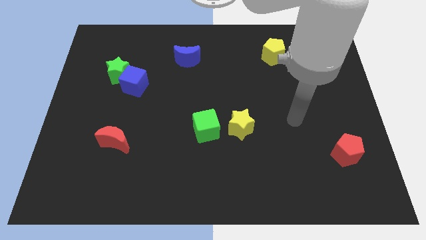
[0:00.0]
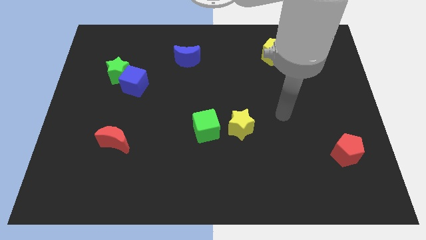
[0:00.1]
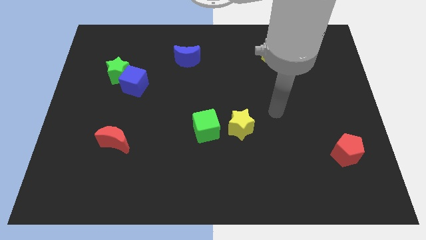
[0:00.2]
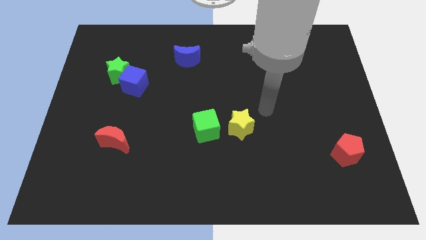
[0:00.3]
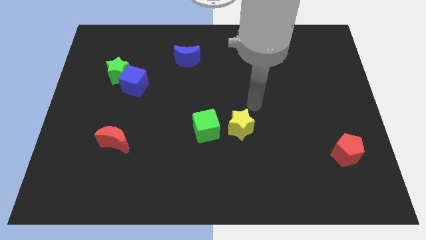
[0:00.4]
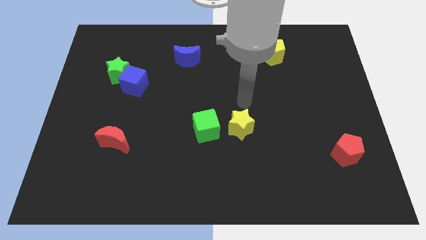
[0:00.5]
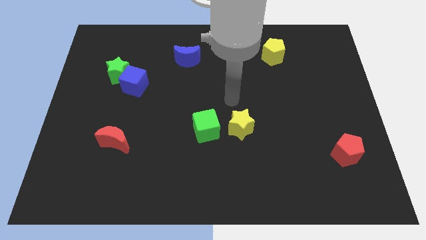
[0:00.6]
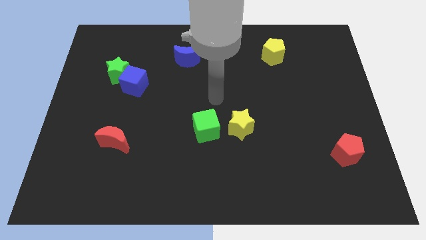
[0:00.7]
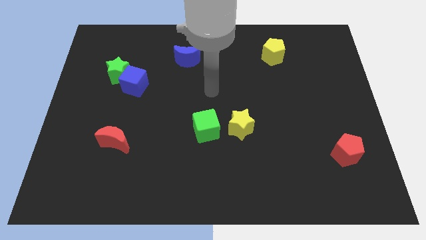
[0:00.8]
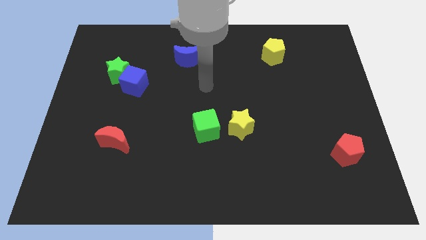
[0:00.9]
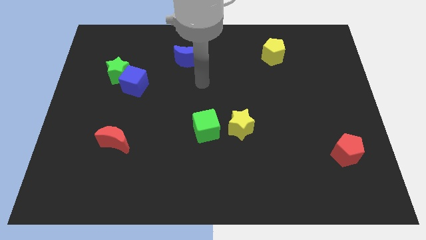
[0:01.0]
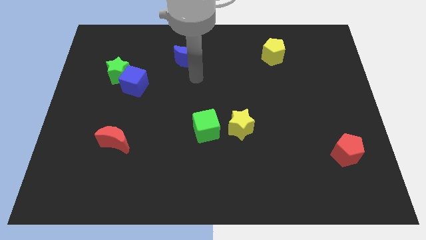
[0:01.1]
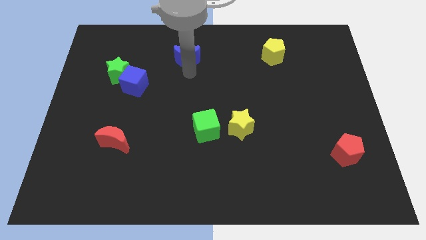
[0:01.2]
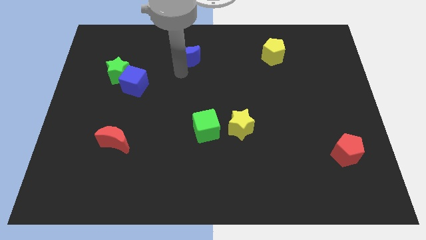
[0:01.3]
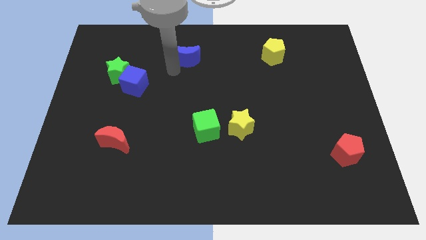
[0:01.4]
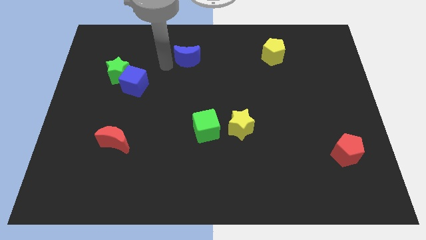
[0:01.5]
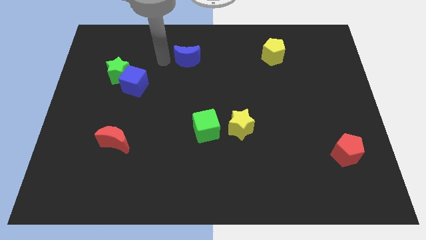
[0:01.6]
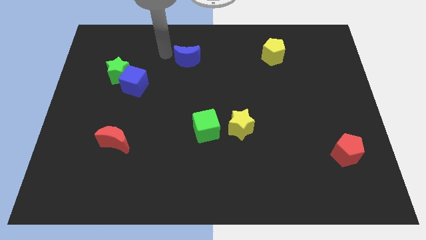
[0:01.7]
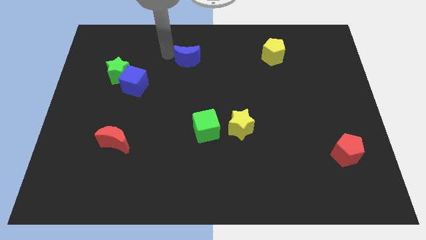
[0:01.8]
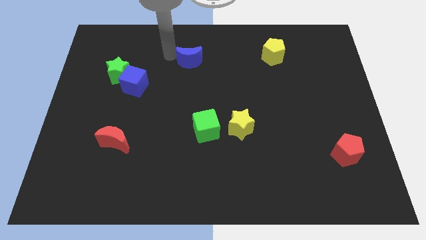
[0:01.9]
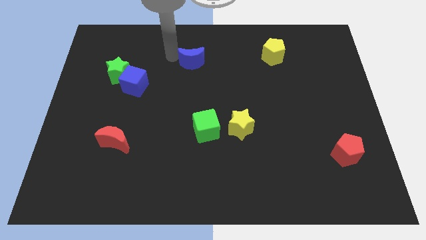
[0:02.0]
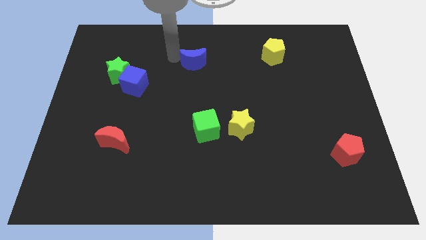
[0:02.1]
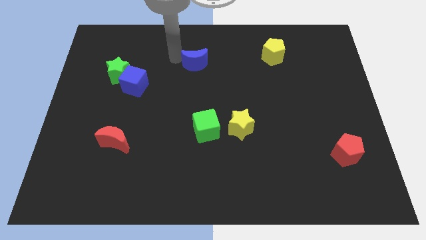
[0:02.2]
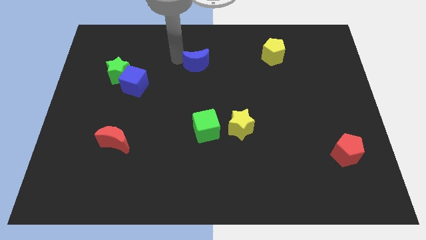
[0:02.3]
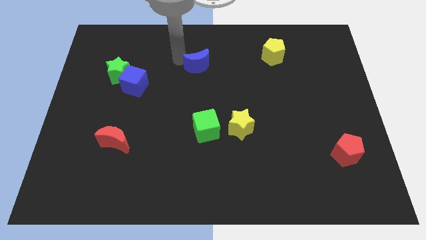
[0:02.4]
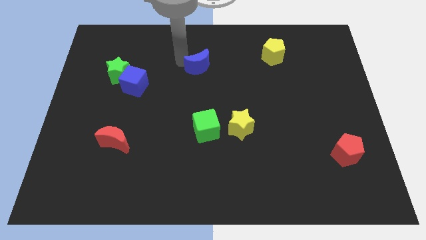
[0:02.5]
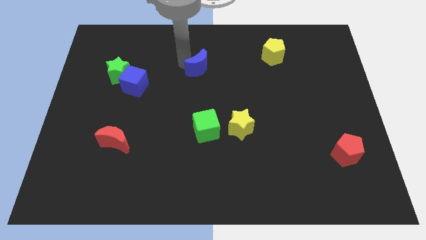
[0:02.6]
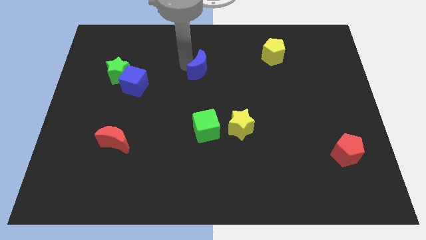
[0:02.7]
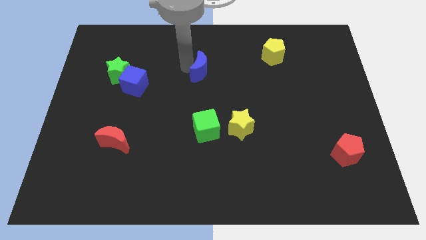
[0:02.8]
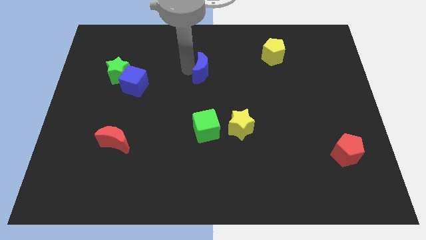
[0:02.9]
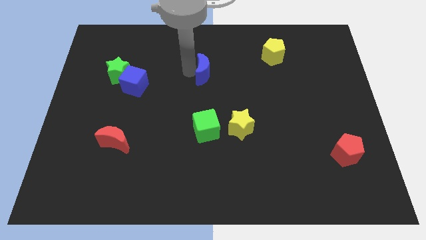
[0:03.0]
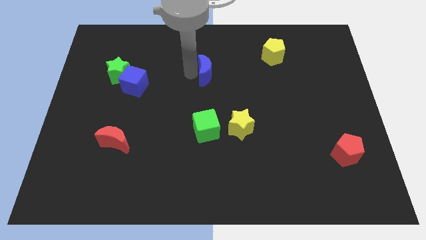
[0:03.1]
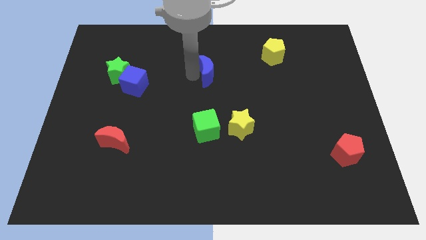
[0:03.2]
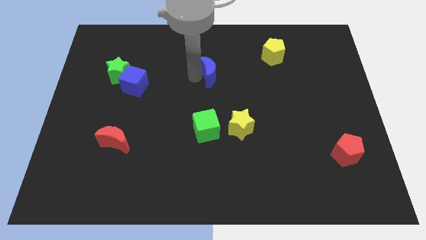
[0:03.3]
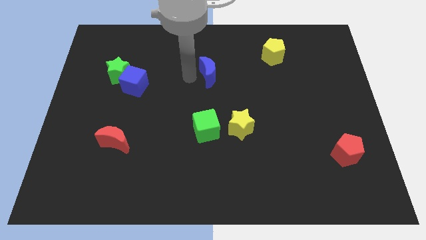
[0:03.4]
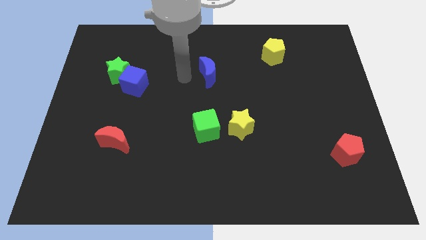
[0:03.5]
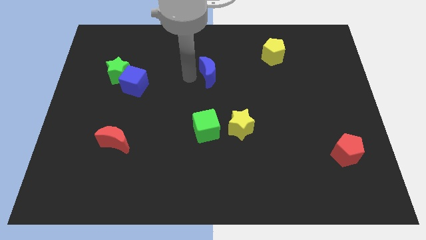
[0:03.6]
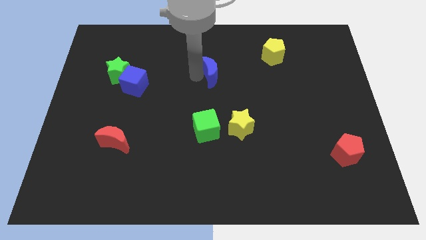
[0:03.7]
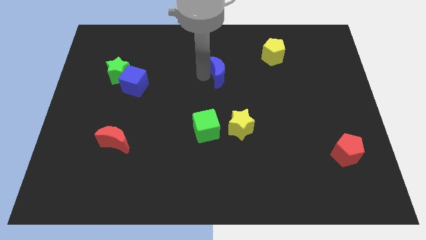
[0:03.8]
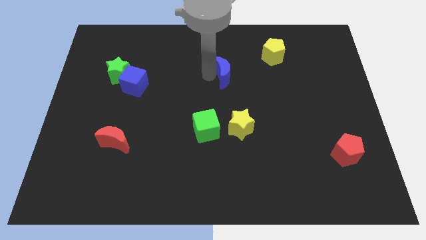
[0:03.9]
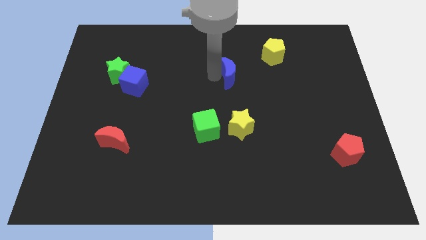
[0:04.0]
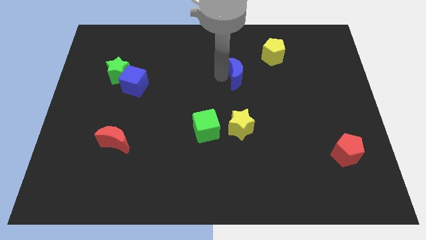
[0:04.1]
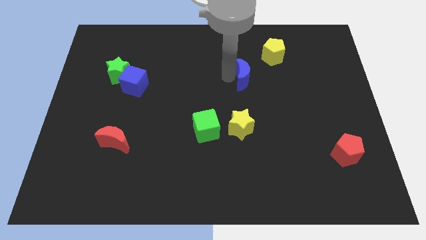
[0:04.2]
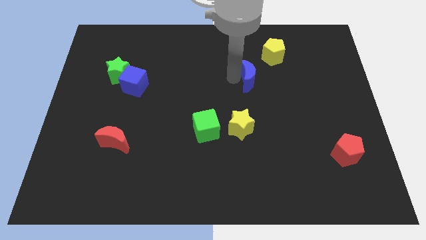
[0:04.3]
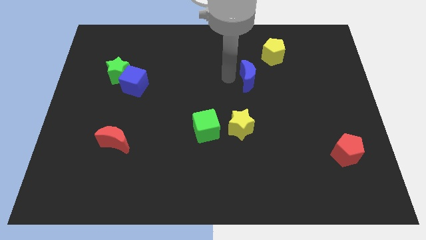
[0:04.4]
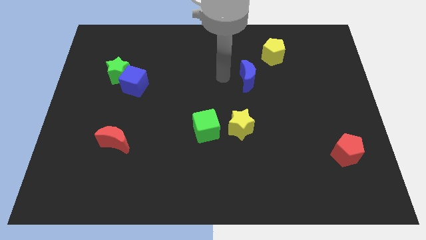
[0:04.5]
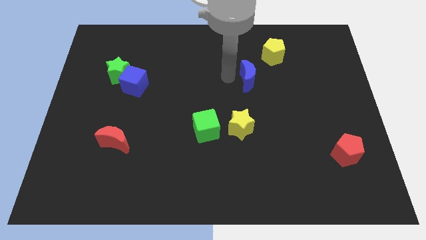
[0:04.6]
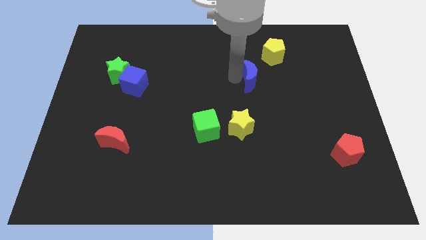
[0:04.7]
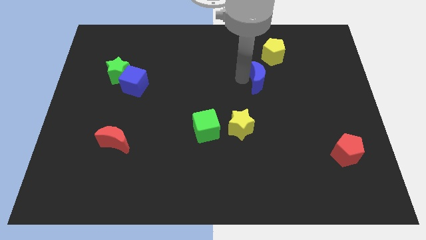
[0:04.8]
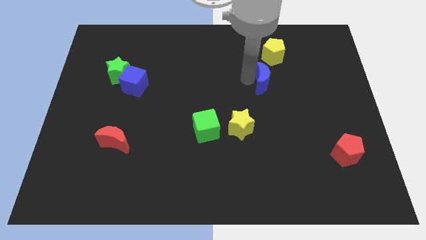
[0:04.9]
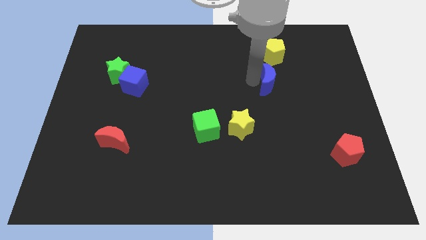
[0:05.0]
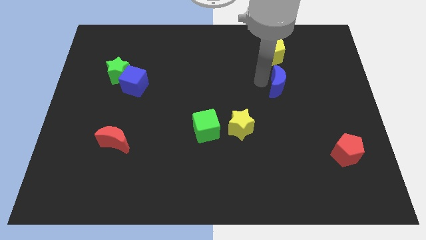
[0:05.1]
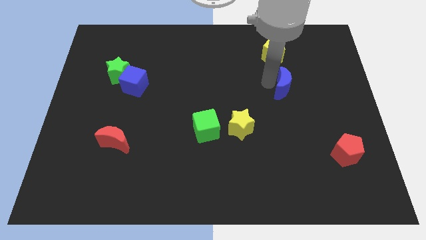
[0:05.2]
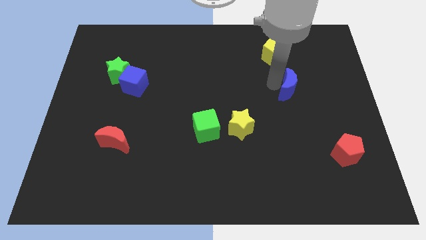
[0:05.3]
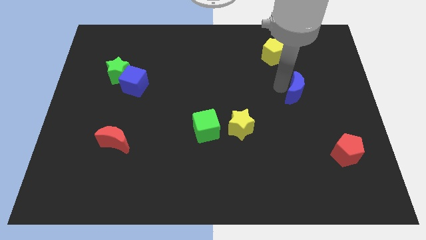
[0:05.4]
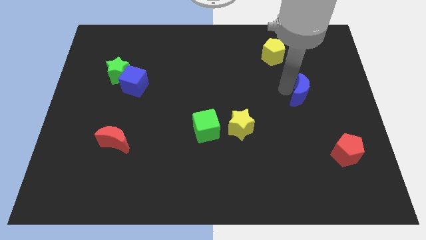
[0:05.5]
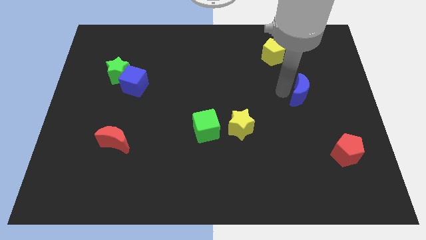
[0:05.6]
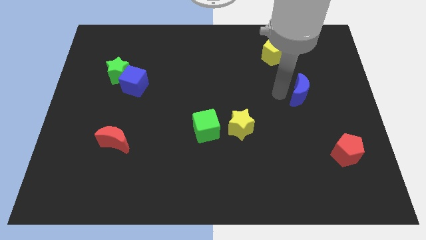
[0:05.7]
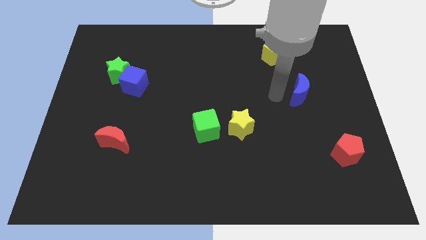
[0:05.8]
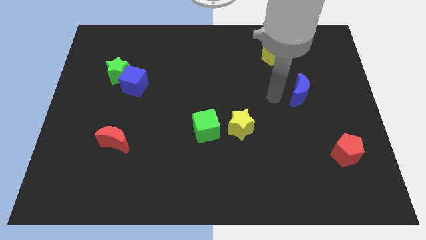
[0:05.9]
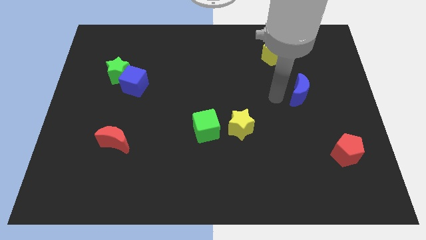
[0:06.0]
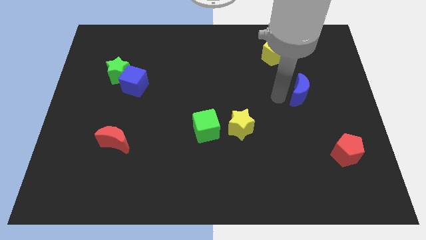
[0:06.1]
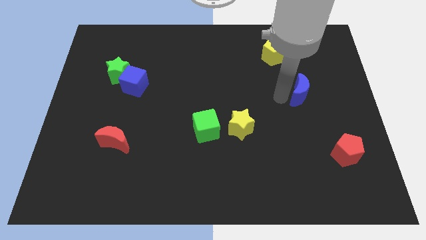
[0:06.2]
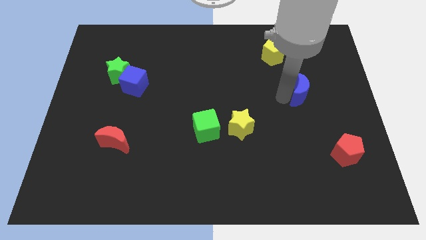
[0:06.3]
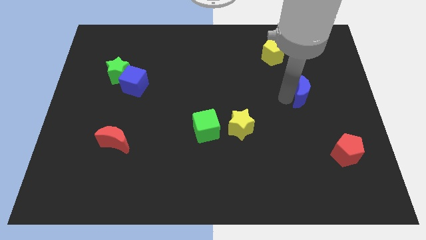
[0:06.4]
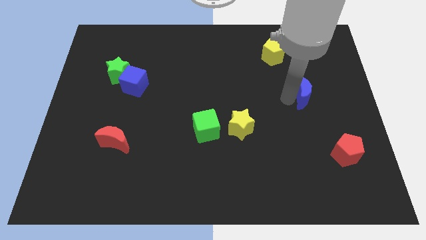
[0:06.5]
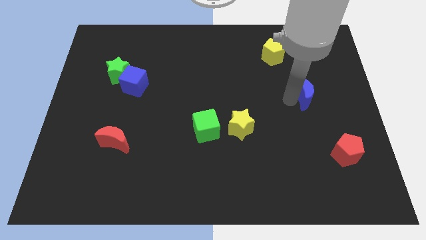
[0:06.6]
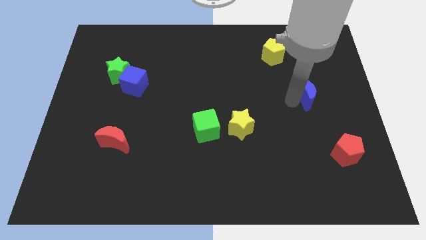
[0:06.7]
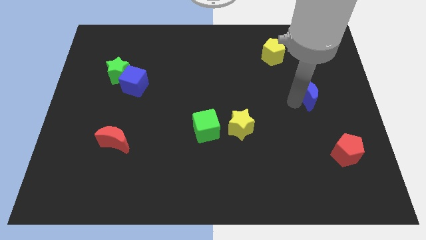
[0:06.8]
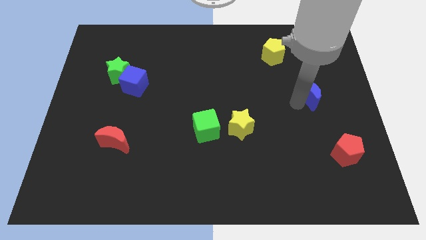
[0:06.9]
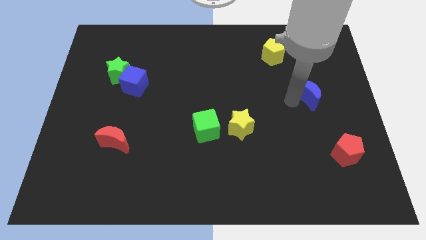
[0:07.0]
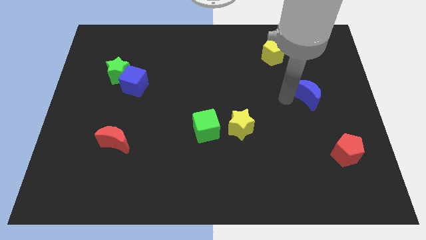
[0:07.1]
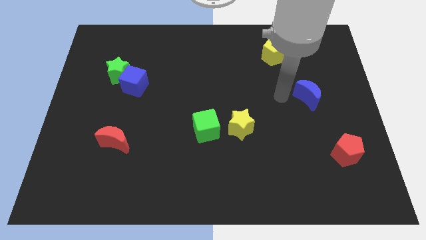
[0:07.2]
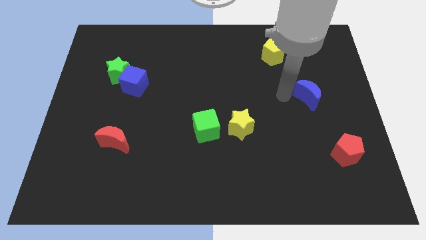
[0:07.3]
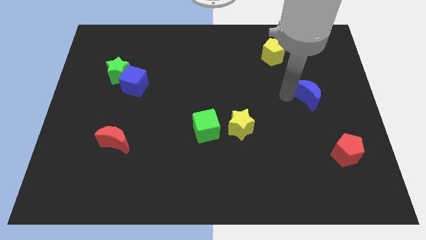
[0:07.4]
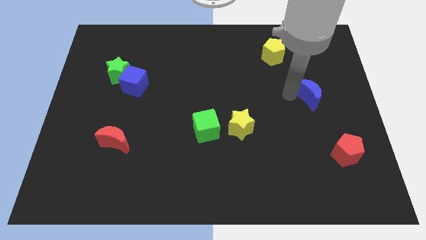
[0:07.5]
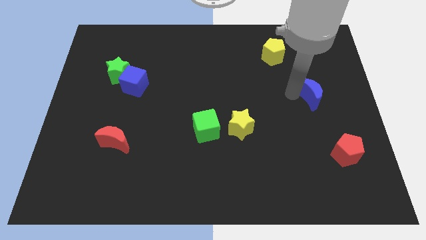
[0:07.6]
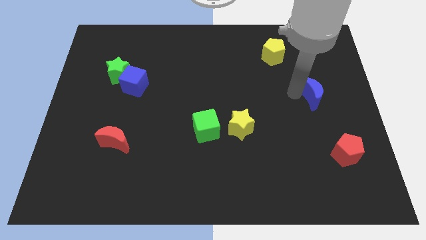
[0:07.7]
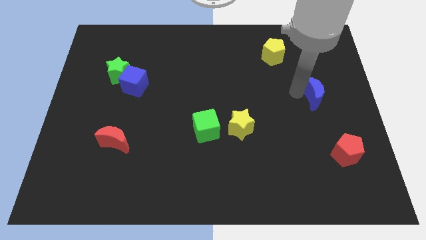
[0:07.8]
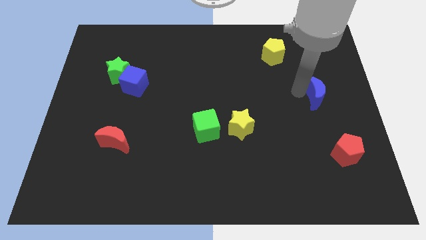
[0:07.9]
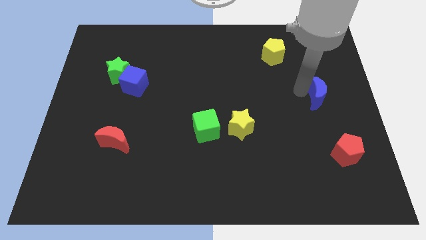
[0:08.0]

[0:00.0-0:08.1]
slide the blue moon to the center right
